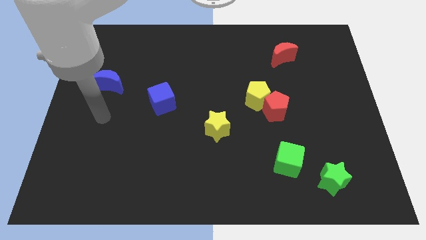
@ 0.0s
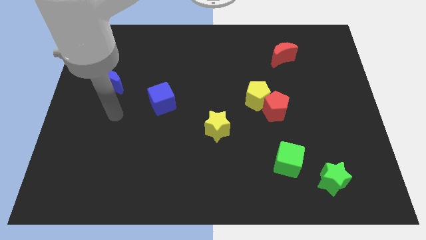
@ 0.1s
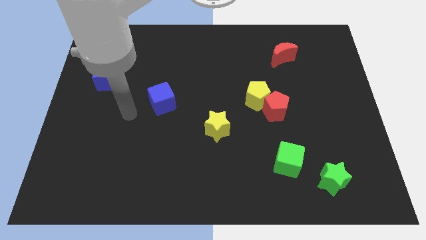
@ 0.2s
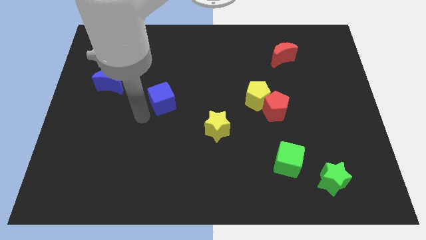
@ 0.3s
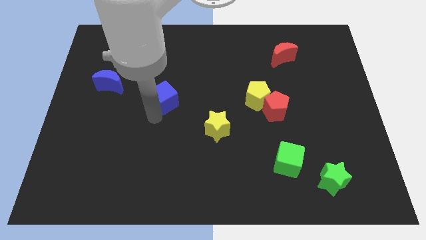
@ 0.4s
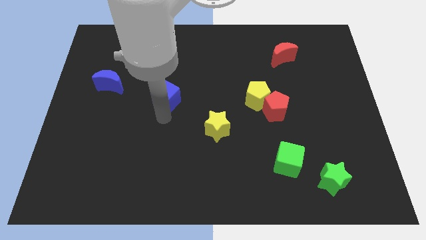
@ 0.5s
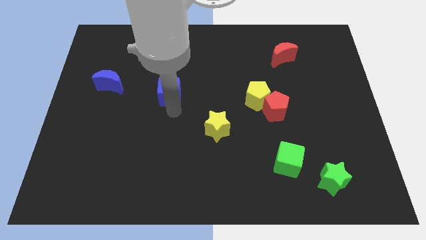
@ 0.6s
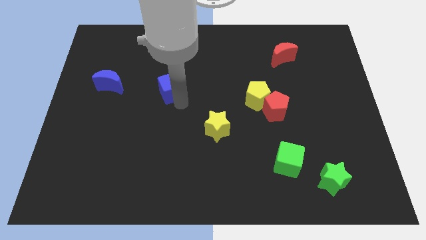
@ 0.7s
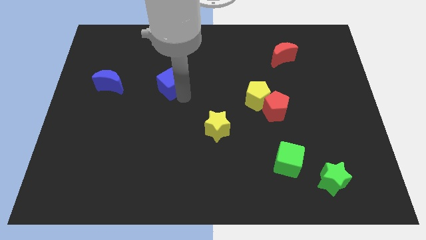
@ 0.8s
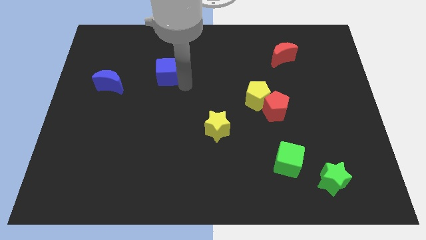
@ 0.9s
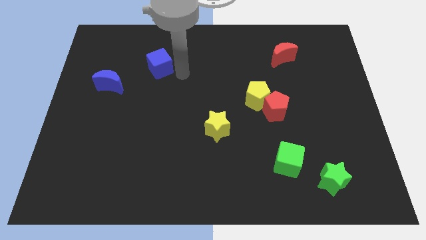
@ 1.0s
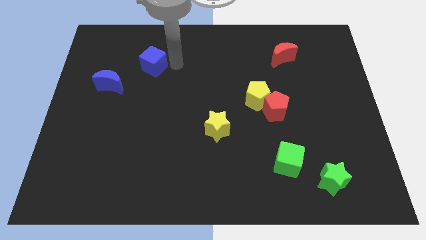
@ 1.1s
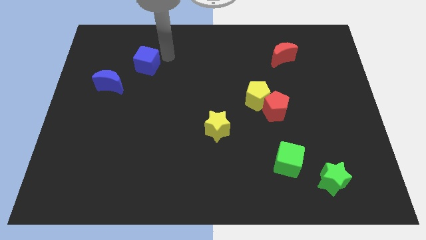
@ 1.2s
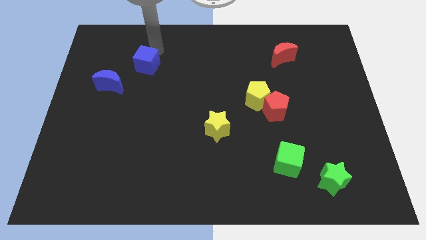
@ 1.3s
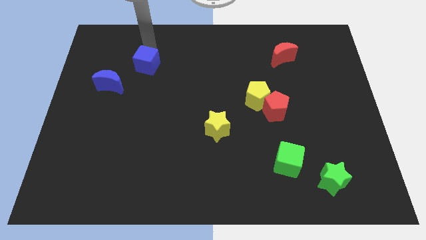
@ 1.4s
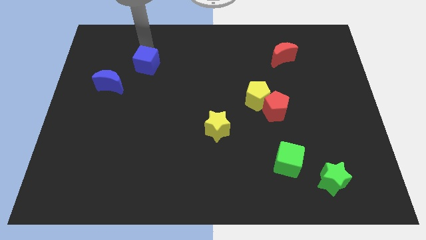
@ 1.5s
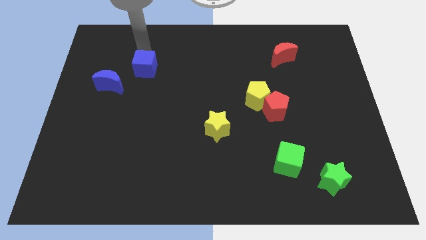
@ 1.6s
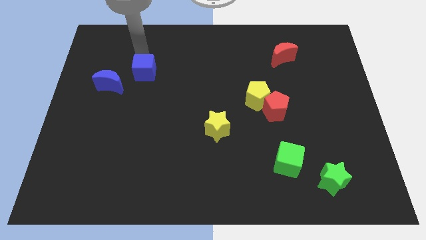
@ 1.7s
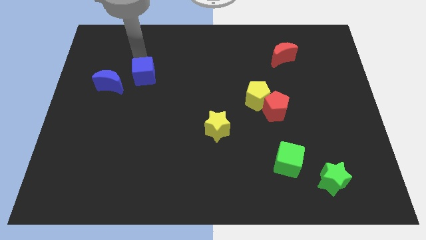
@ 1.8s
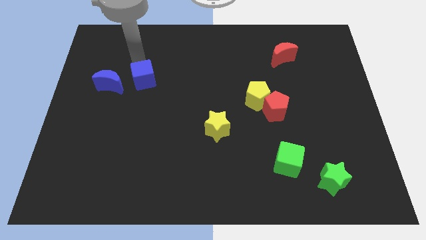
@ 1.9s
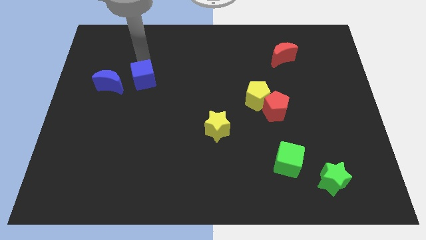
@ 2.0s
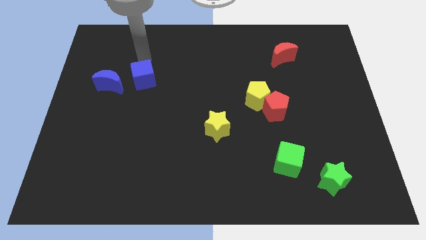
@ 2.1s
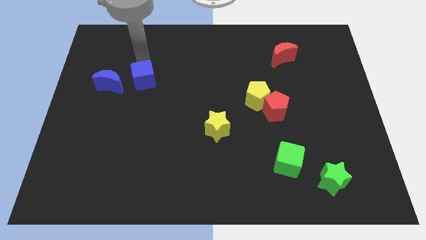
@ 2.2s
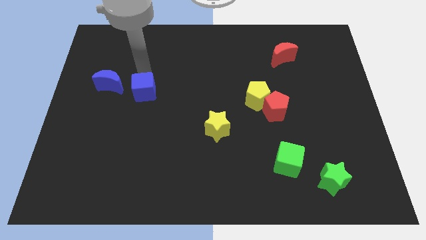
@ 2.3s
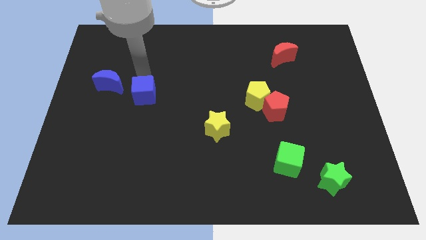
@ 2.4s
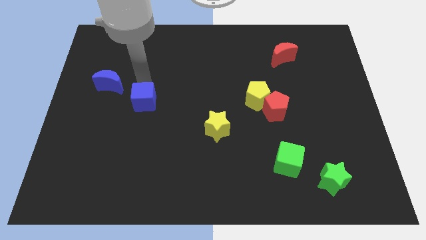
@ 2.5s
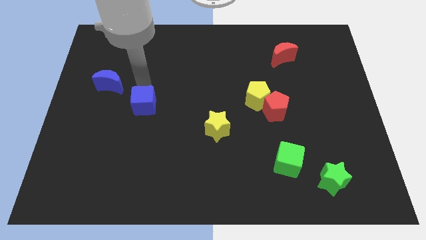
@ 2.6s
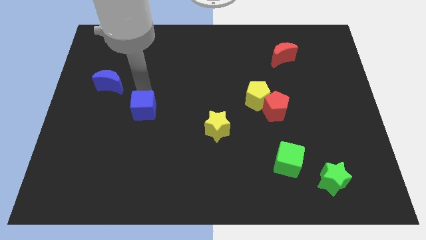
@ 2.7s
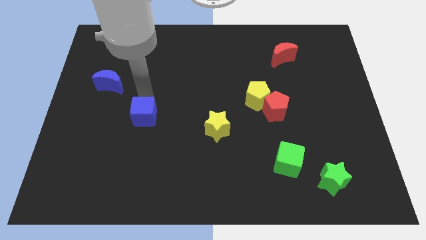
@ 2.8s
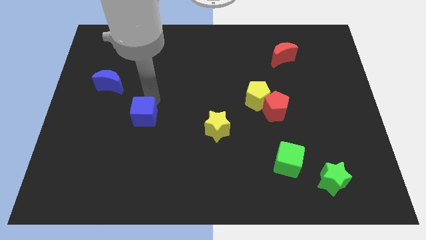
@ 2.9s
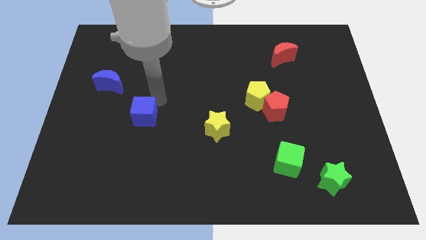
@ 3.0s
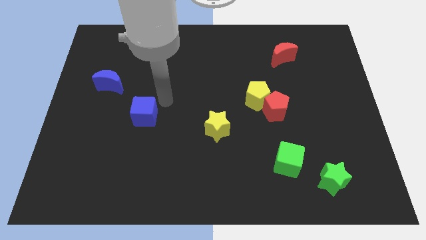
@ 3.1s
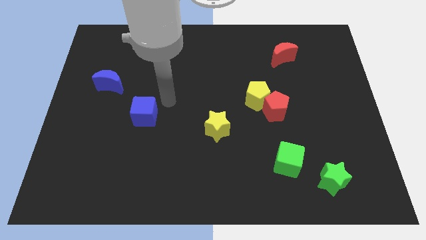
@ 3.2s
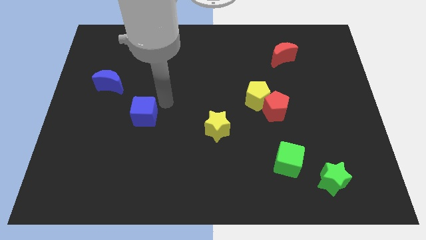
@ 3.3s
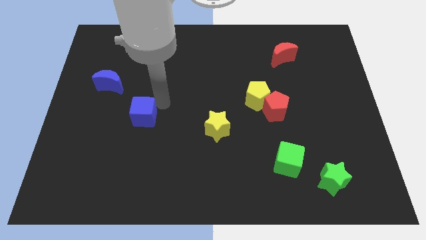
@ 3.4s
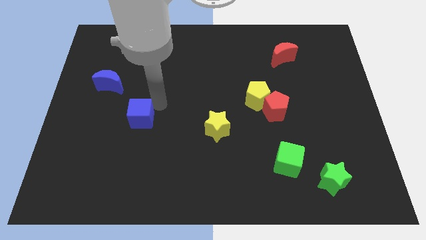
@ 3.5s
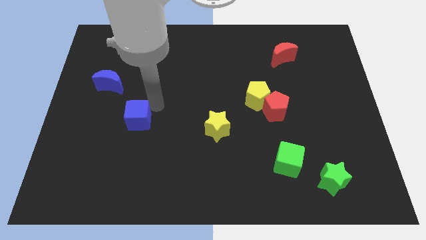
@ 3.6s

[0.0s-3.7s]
slightly slide the blue cube diagonally downwards and left

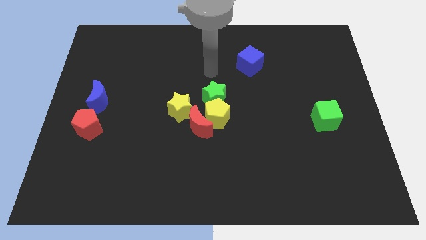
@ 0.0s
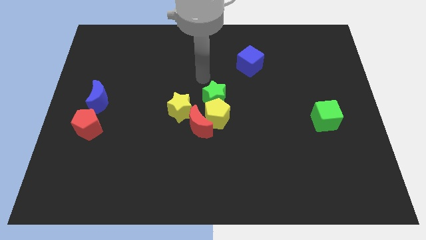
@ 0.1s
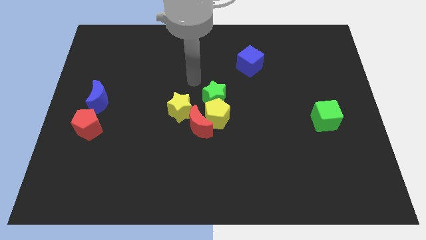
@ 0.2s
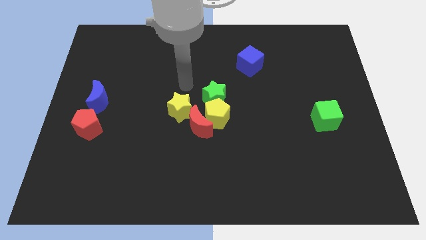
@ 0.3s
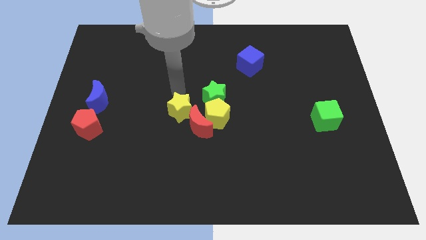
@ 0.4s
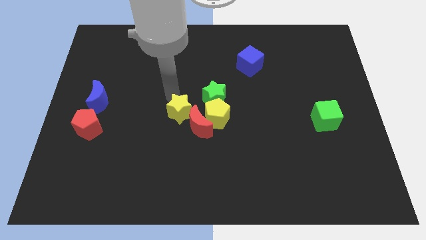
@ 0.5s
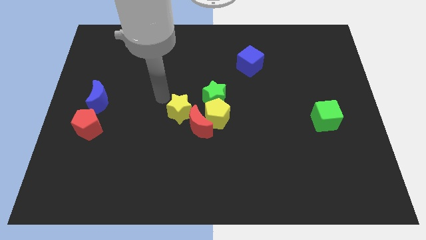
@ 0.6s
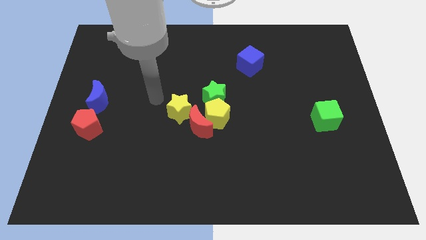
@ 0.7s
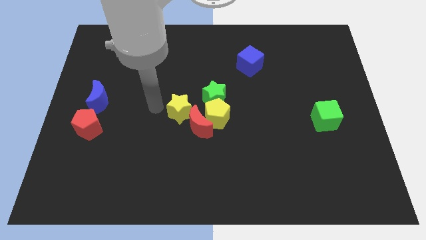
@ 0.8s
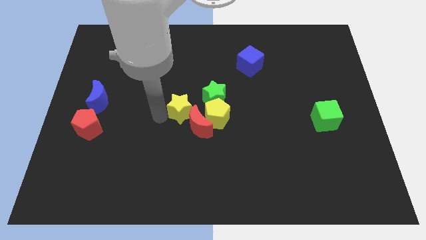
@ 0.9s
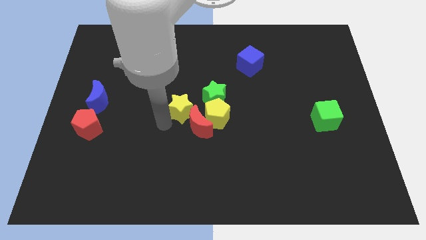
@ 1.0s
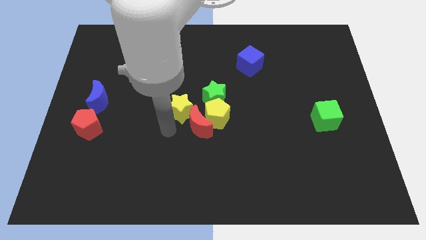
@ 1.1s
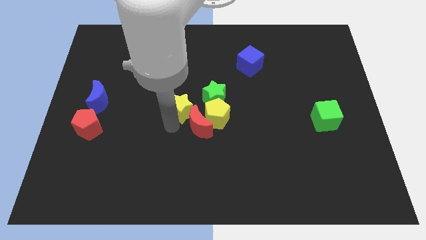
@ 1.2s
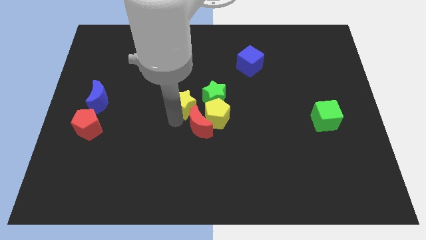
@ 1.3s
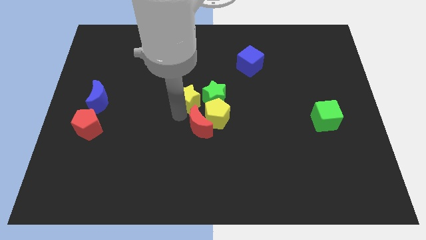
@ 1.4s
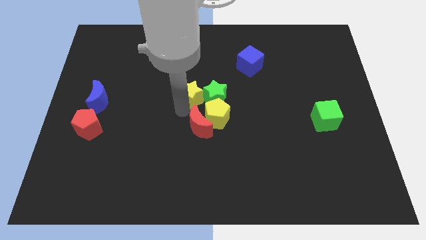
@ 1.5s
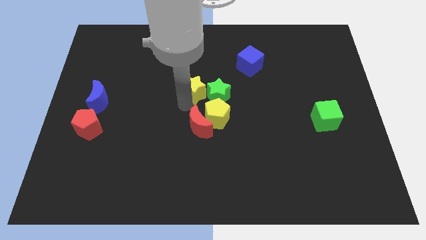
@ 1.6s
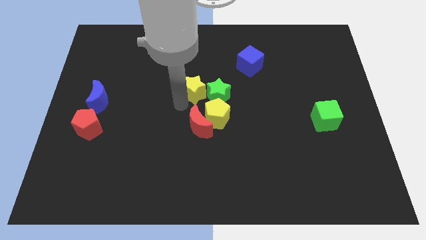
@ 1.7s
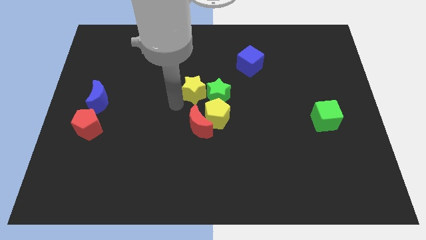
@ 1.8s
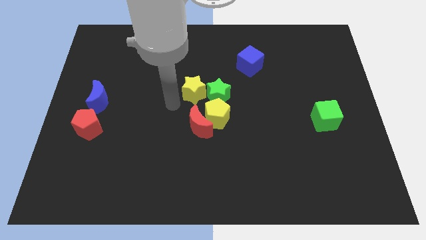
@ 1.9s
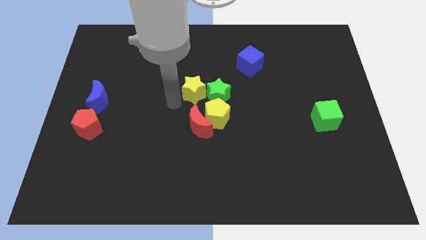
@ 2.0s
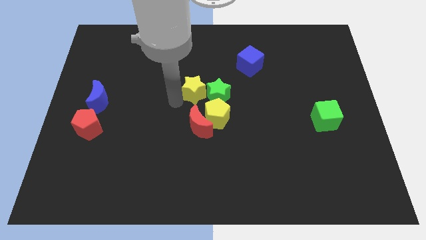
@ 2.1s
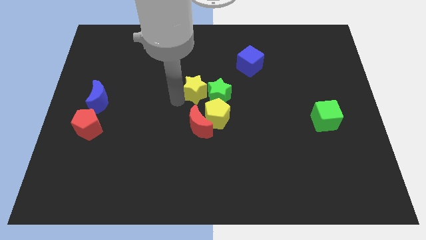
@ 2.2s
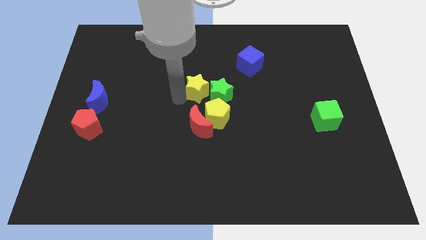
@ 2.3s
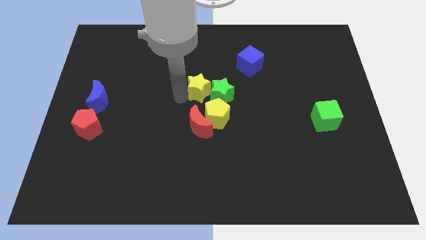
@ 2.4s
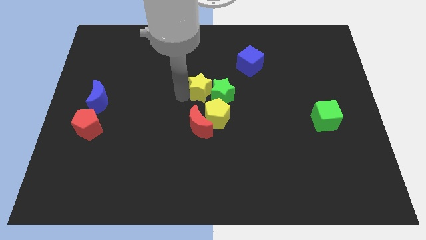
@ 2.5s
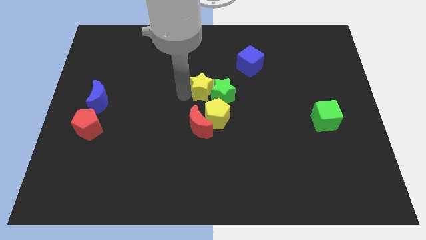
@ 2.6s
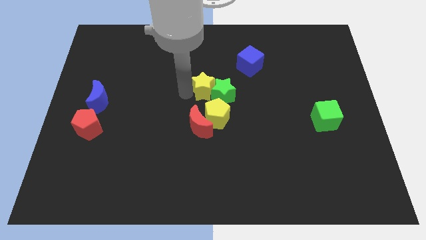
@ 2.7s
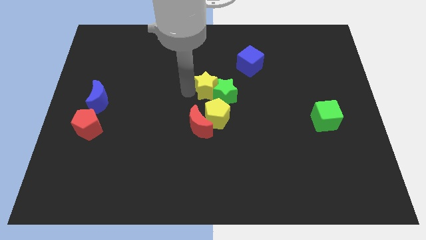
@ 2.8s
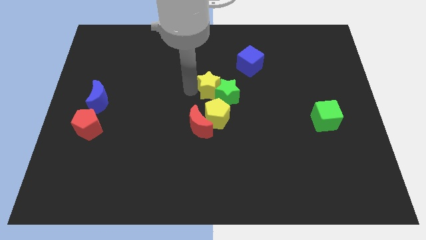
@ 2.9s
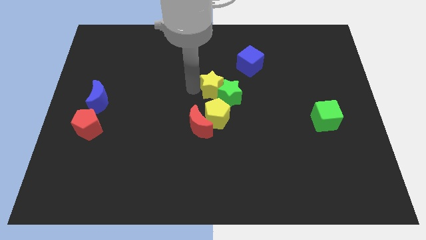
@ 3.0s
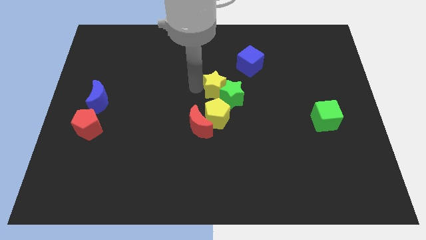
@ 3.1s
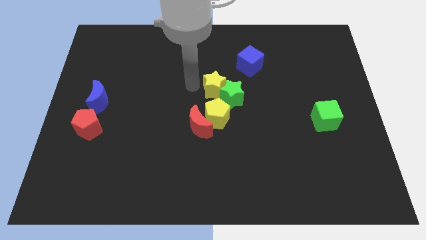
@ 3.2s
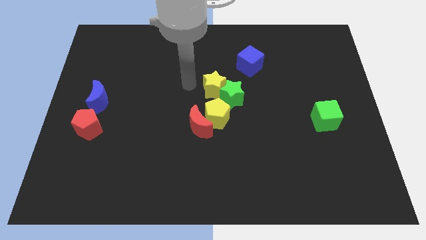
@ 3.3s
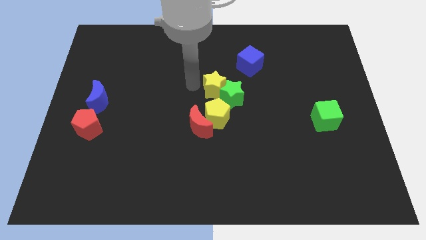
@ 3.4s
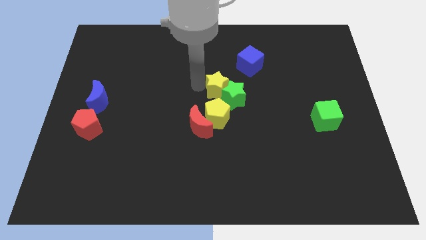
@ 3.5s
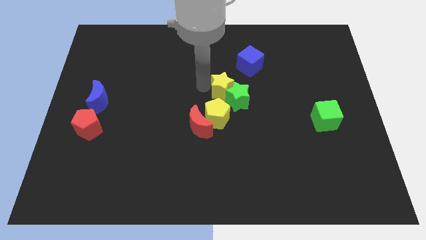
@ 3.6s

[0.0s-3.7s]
slide the yellow star right a little bit

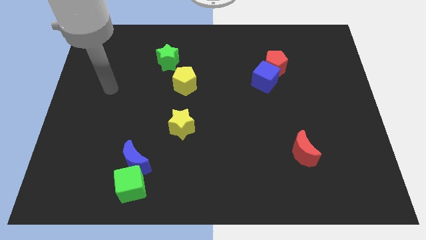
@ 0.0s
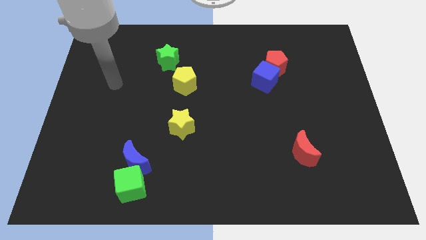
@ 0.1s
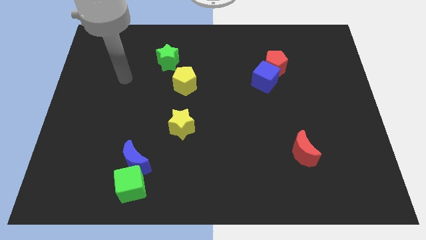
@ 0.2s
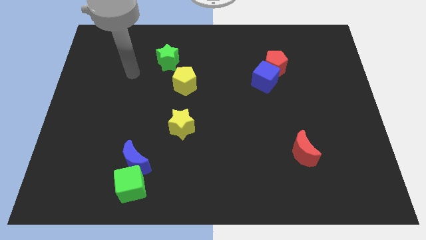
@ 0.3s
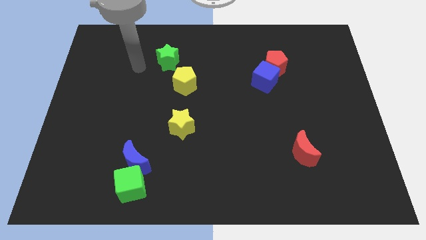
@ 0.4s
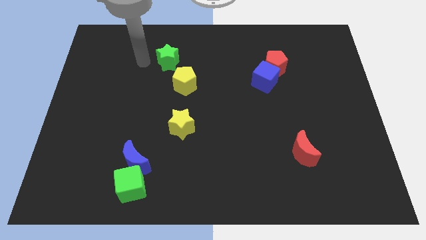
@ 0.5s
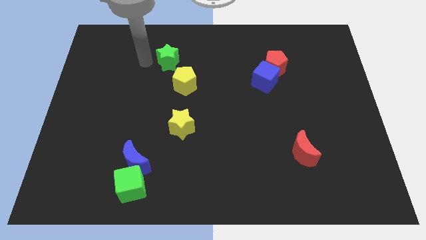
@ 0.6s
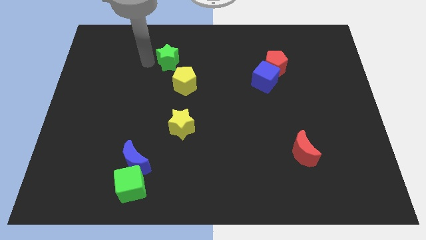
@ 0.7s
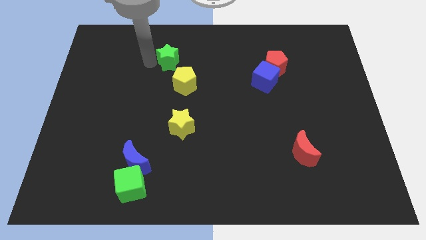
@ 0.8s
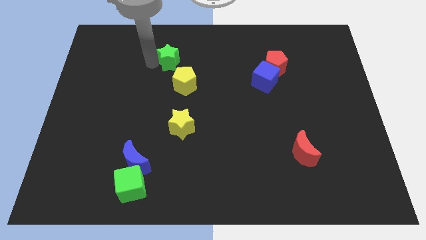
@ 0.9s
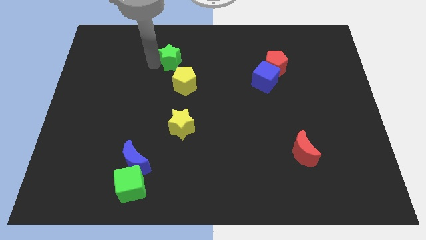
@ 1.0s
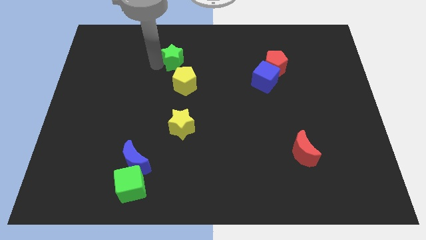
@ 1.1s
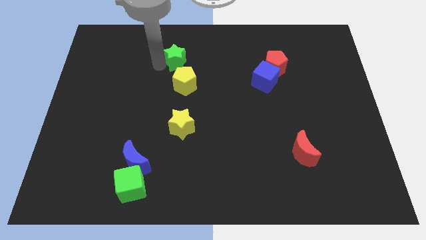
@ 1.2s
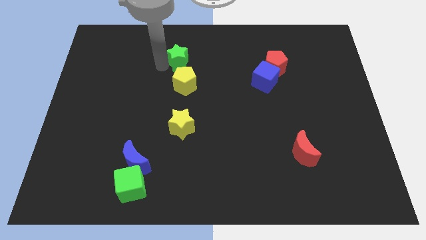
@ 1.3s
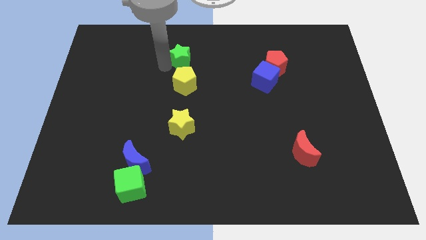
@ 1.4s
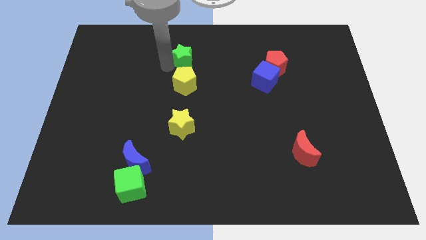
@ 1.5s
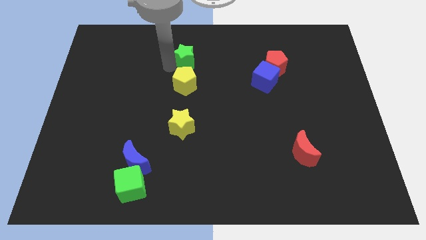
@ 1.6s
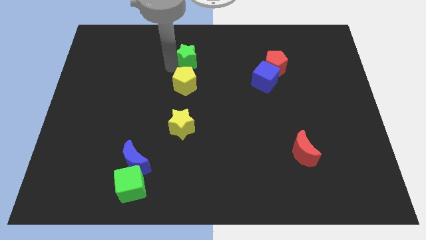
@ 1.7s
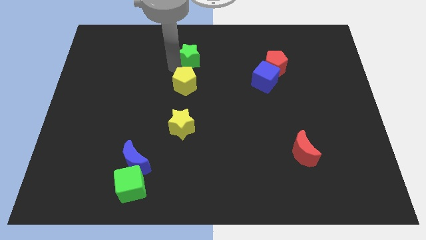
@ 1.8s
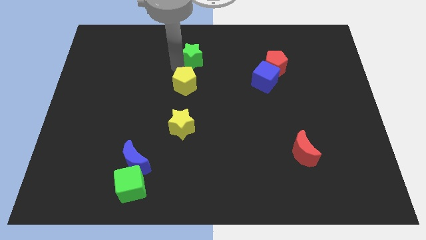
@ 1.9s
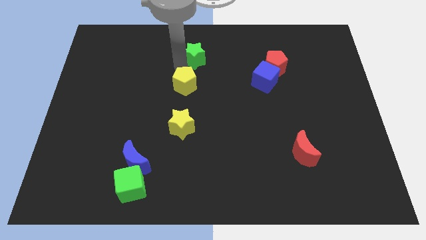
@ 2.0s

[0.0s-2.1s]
push the green star right somewhat
